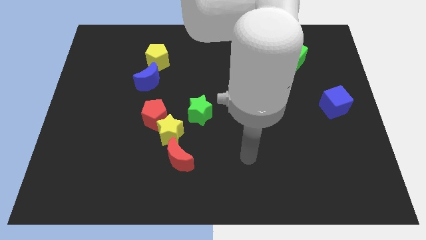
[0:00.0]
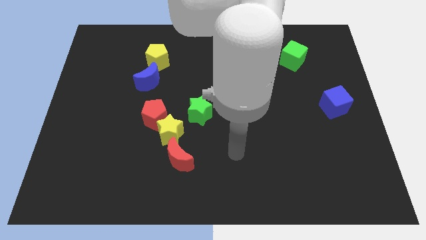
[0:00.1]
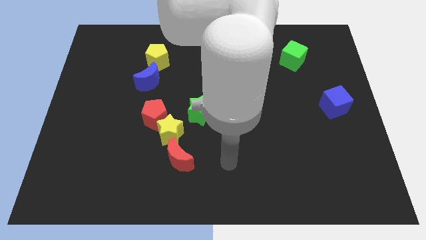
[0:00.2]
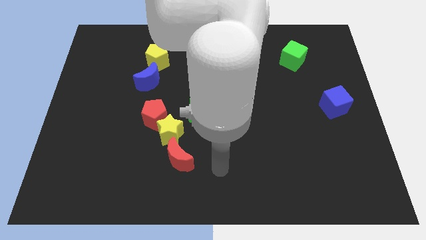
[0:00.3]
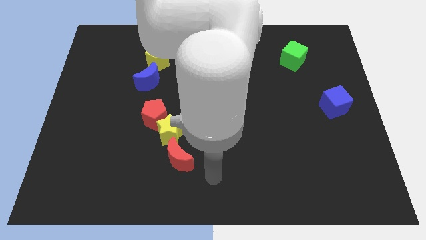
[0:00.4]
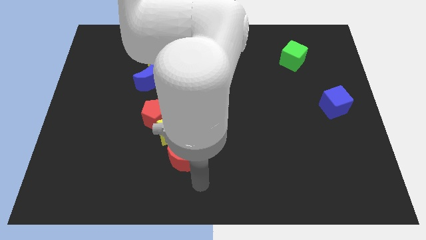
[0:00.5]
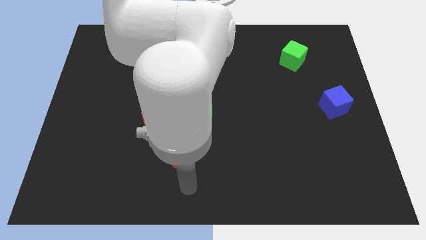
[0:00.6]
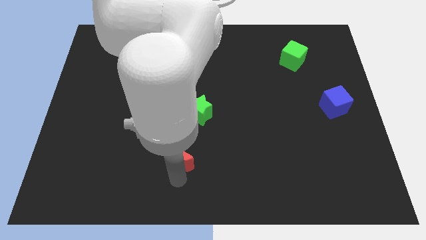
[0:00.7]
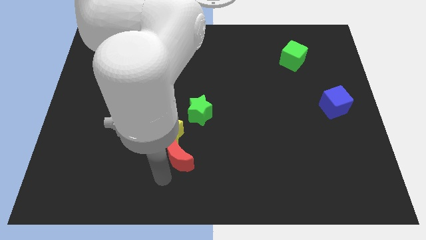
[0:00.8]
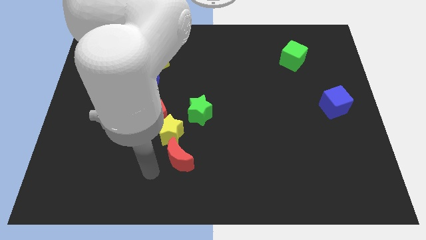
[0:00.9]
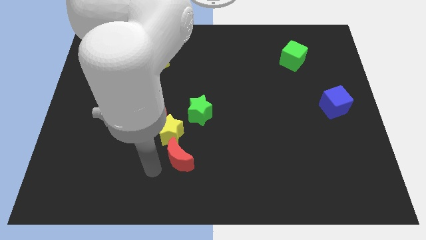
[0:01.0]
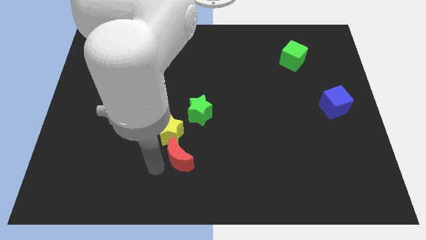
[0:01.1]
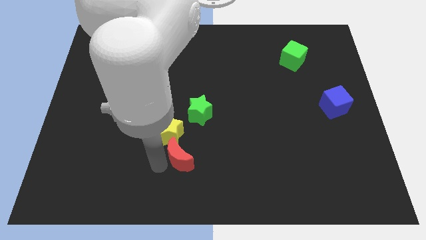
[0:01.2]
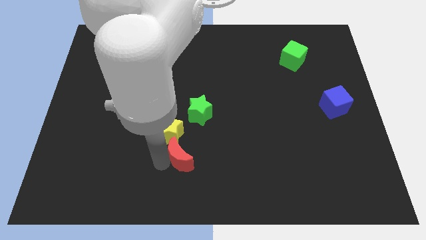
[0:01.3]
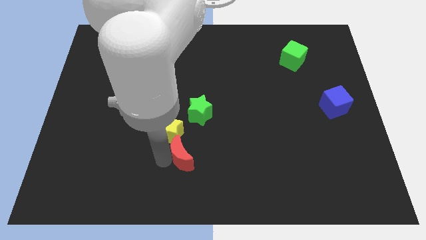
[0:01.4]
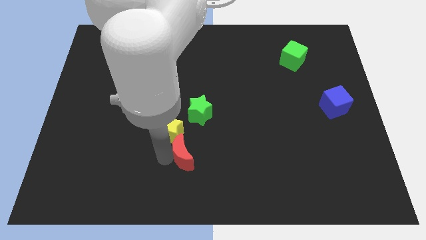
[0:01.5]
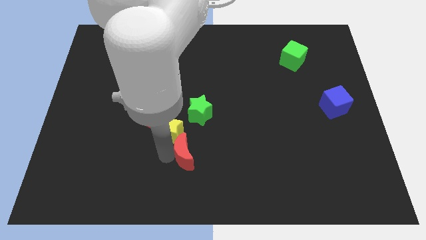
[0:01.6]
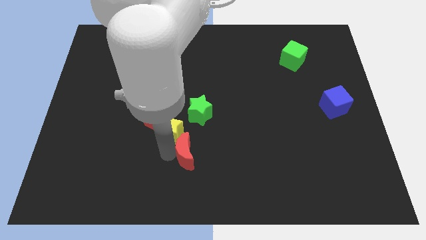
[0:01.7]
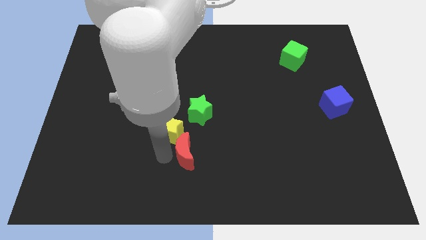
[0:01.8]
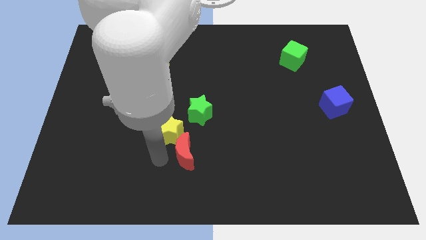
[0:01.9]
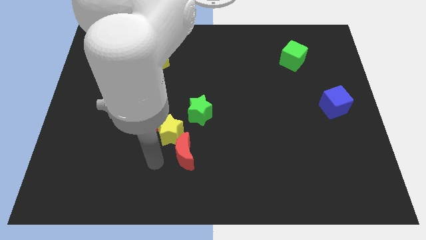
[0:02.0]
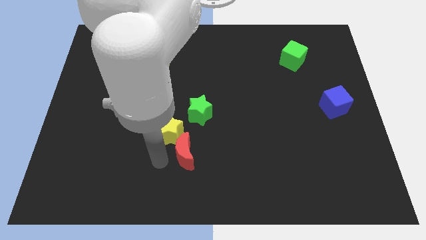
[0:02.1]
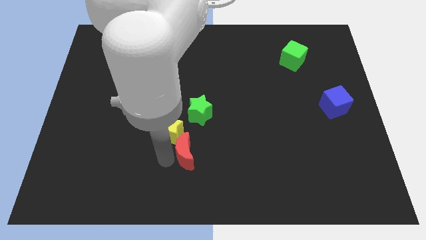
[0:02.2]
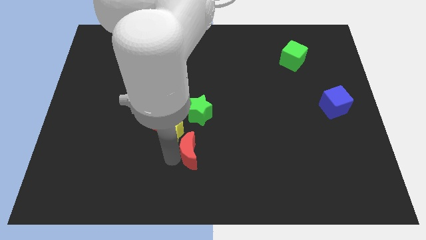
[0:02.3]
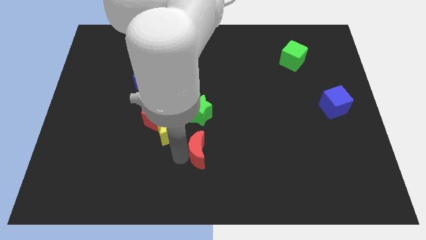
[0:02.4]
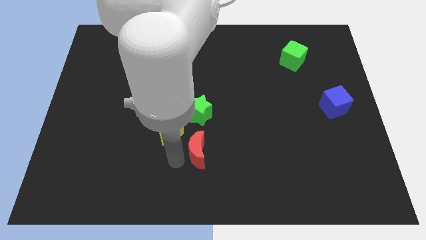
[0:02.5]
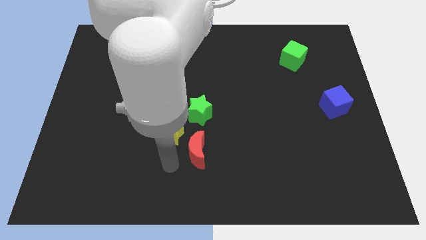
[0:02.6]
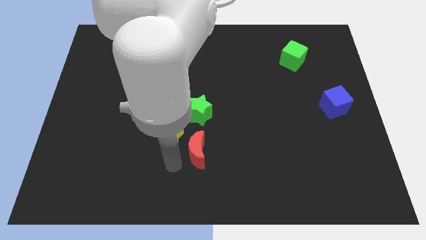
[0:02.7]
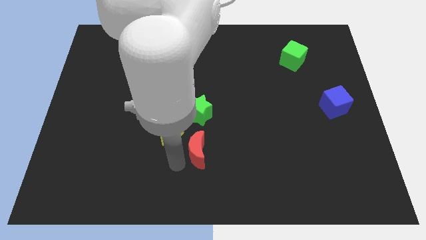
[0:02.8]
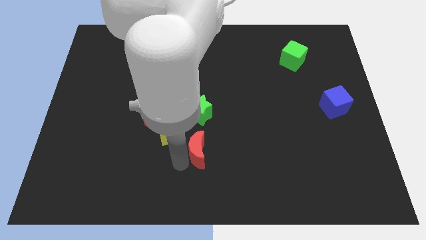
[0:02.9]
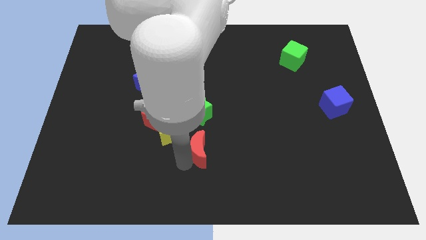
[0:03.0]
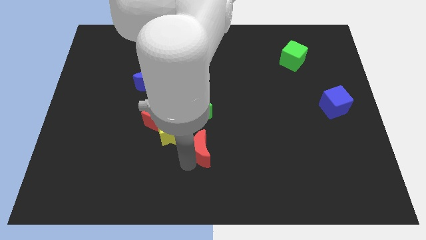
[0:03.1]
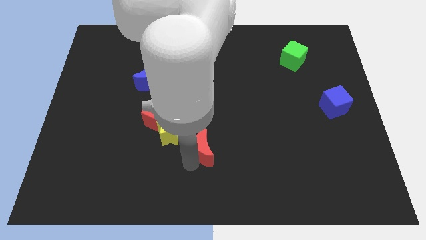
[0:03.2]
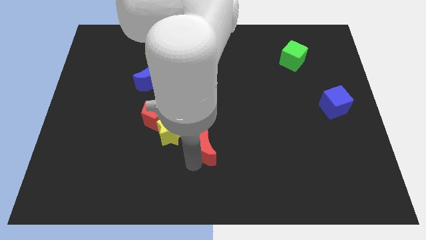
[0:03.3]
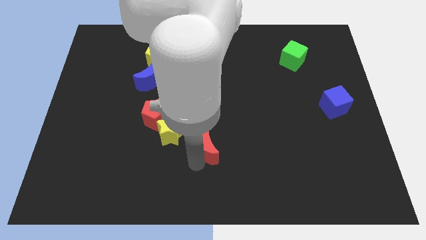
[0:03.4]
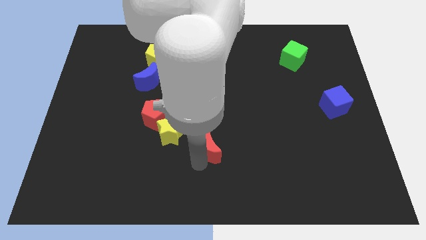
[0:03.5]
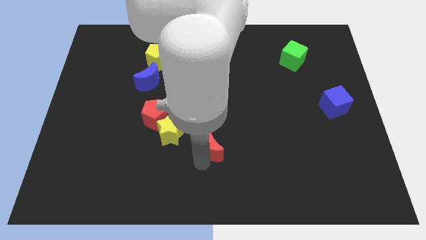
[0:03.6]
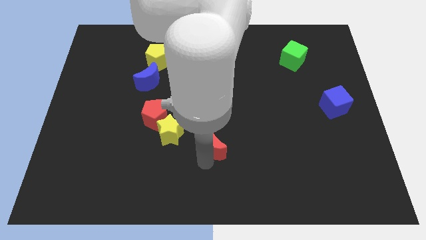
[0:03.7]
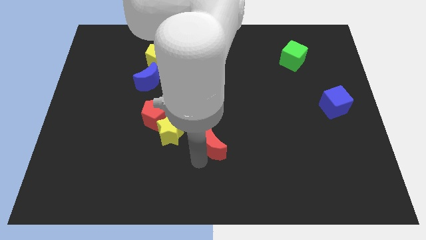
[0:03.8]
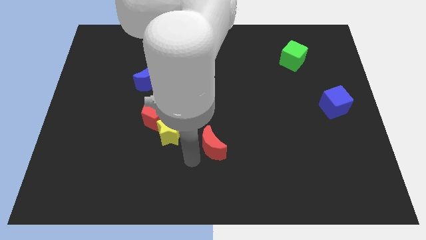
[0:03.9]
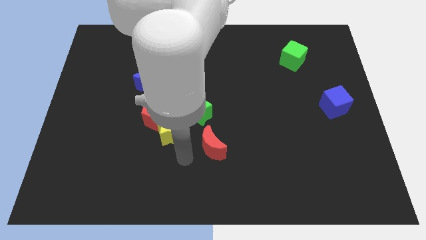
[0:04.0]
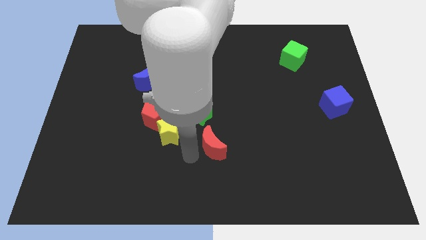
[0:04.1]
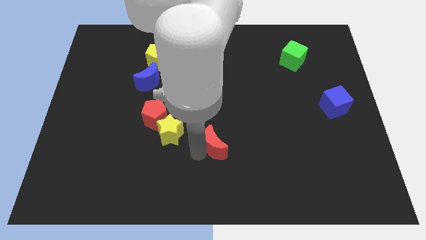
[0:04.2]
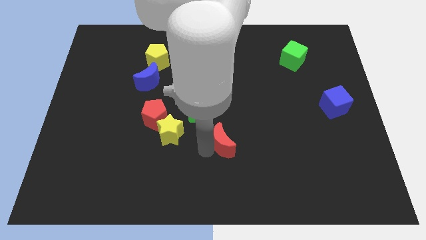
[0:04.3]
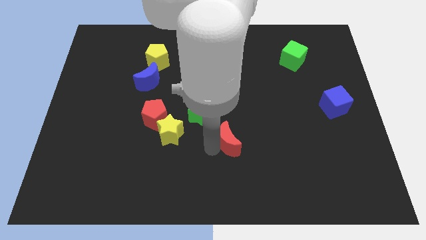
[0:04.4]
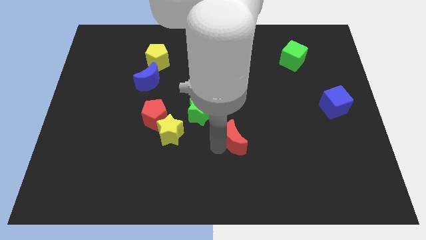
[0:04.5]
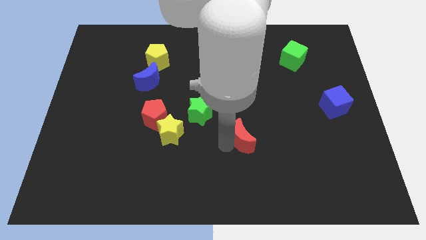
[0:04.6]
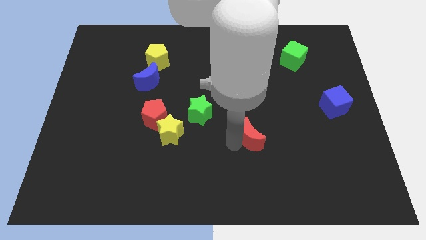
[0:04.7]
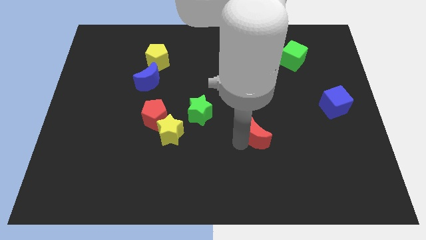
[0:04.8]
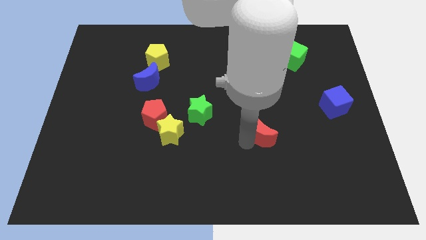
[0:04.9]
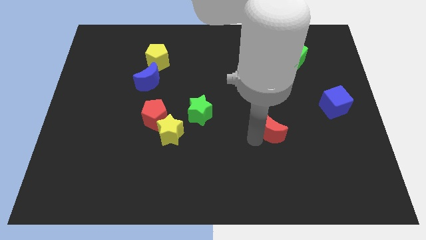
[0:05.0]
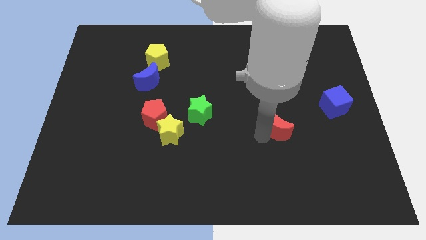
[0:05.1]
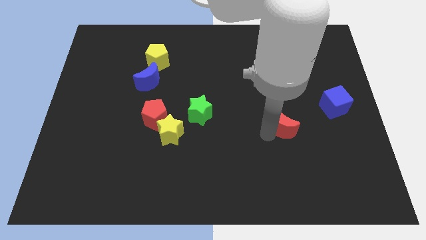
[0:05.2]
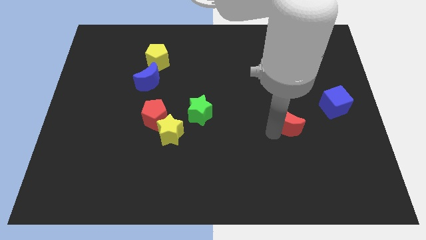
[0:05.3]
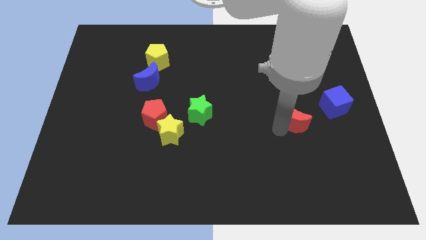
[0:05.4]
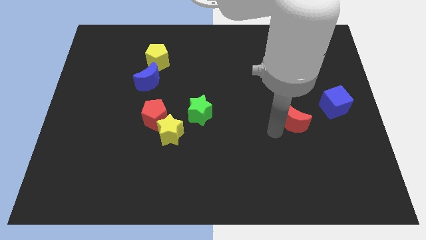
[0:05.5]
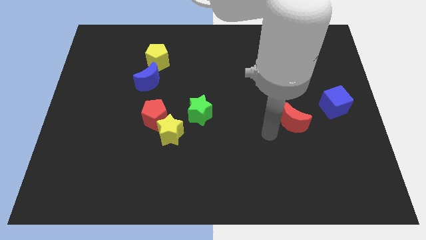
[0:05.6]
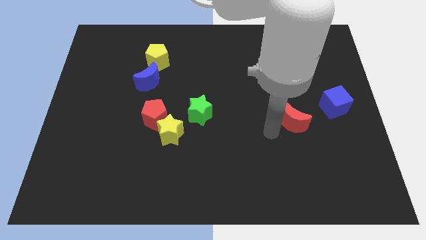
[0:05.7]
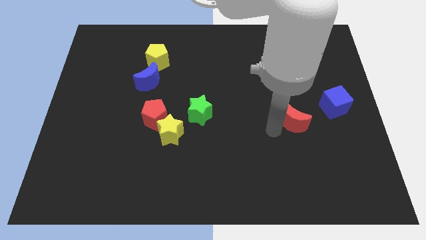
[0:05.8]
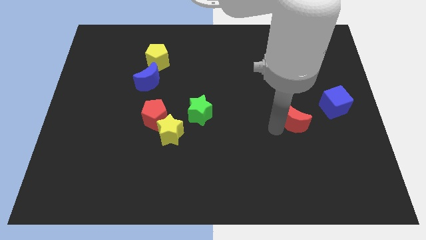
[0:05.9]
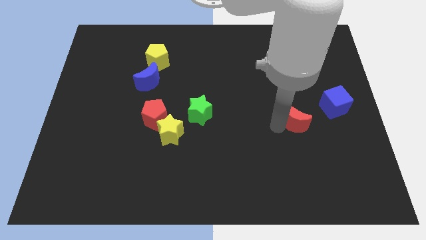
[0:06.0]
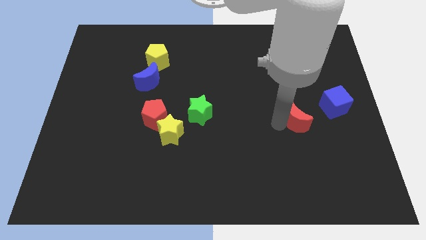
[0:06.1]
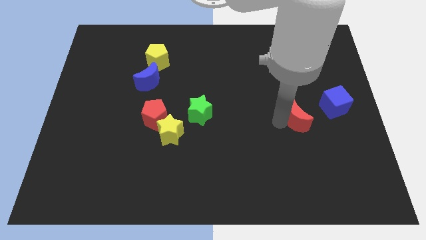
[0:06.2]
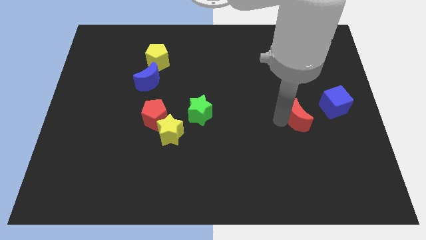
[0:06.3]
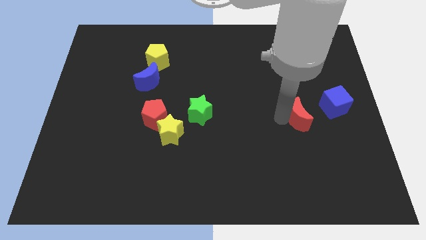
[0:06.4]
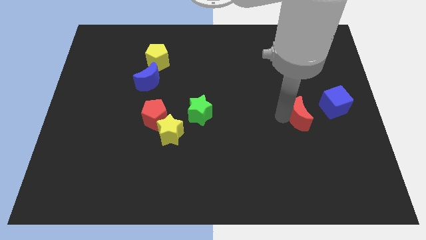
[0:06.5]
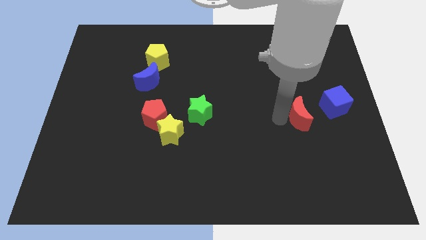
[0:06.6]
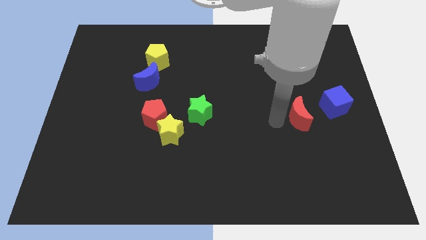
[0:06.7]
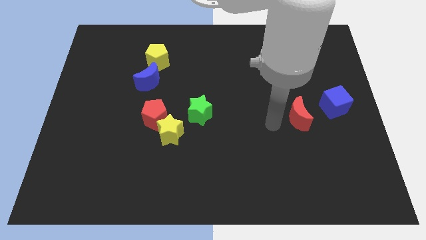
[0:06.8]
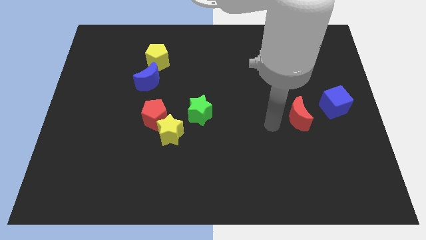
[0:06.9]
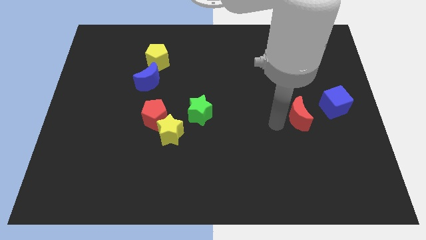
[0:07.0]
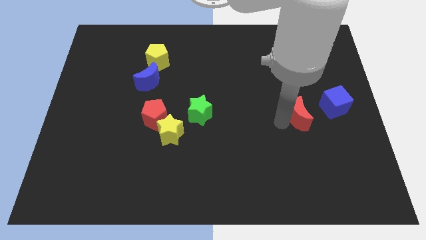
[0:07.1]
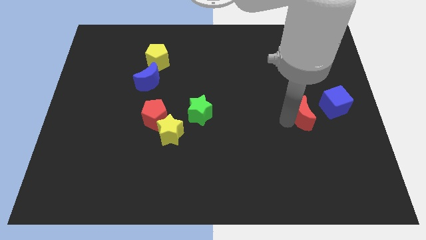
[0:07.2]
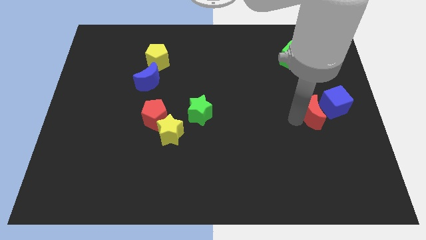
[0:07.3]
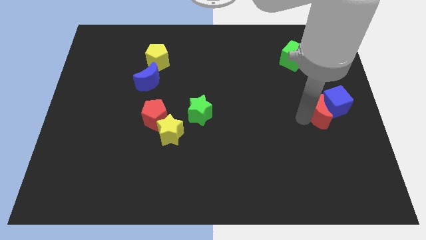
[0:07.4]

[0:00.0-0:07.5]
slide the red moon next to the blue cube
